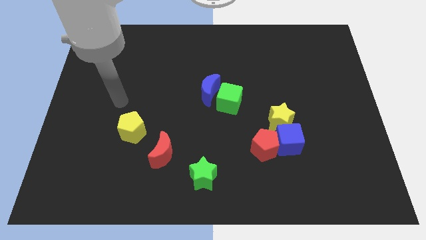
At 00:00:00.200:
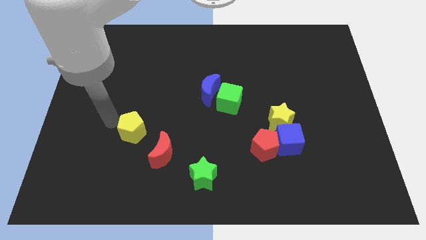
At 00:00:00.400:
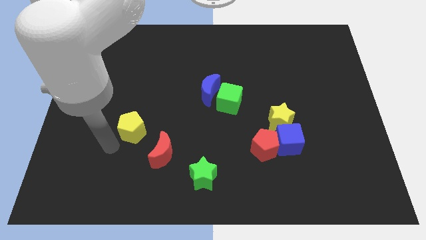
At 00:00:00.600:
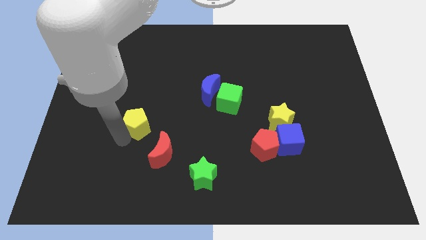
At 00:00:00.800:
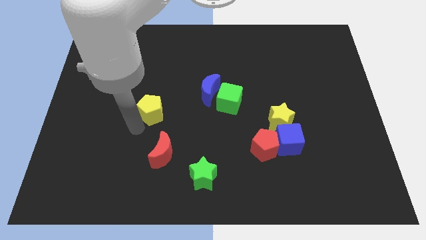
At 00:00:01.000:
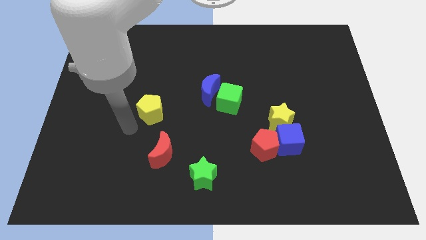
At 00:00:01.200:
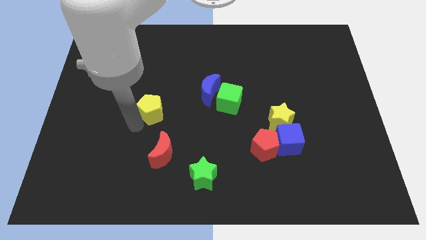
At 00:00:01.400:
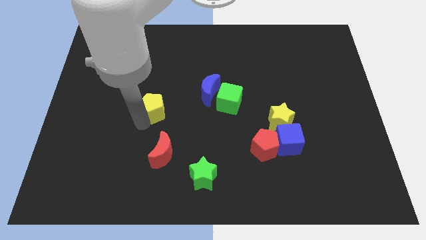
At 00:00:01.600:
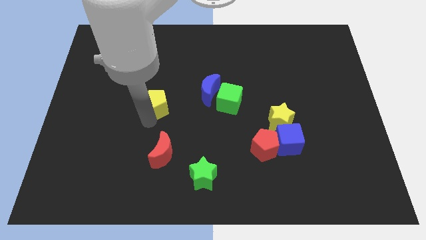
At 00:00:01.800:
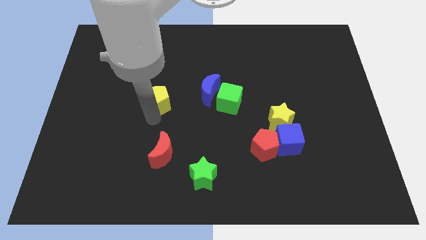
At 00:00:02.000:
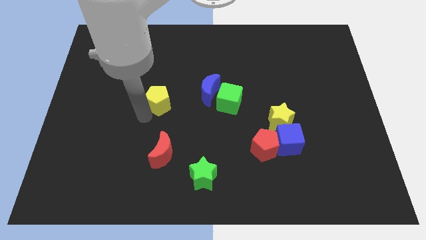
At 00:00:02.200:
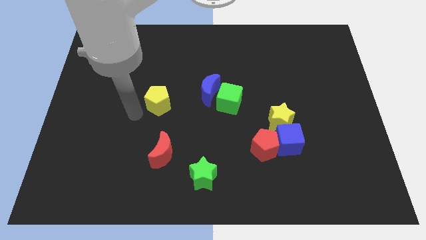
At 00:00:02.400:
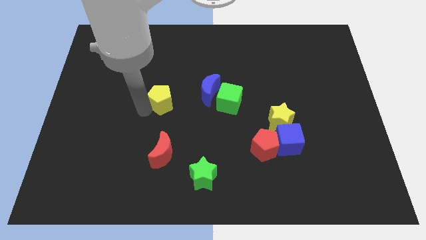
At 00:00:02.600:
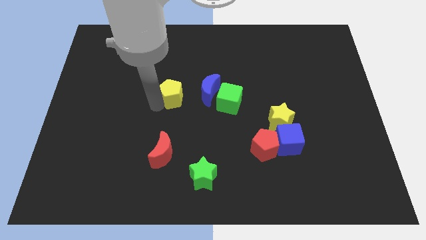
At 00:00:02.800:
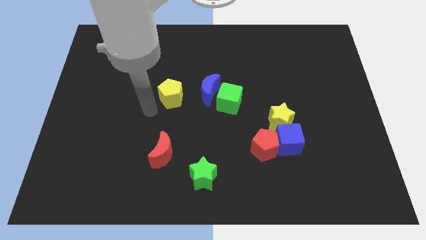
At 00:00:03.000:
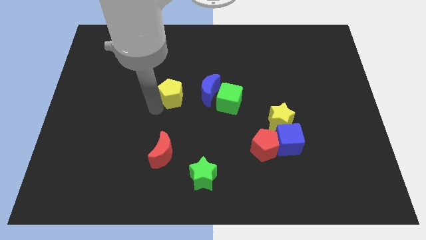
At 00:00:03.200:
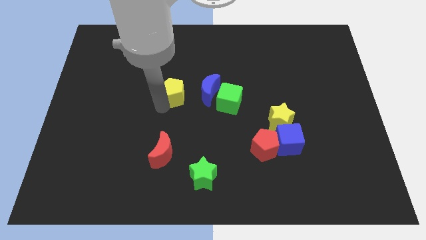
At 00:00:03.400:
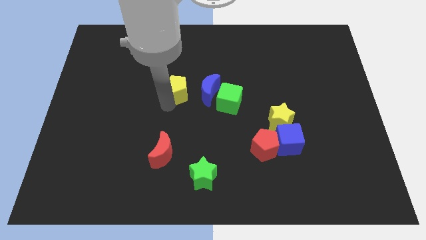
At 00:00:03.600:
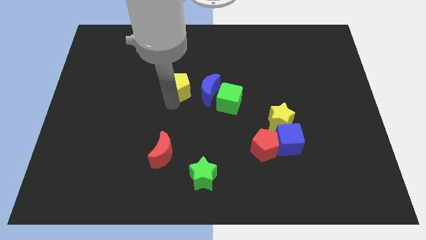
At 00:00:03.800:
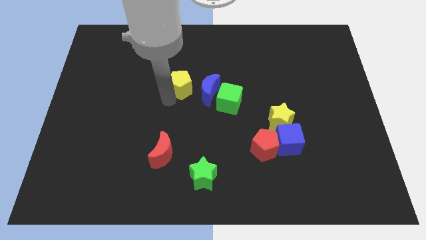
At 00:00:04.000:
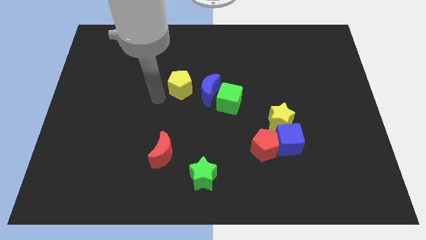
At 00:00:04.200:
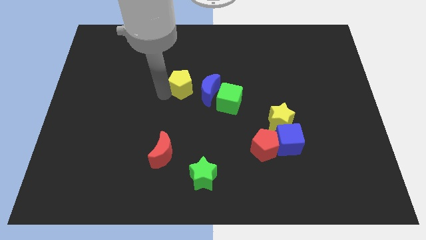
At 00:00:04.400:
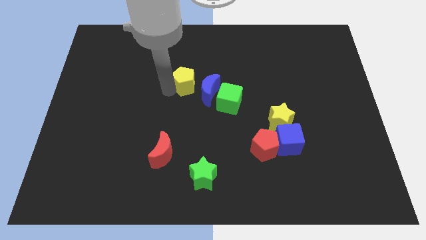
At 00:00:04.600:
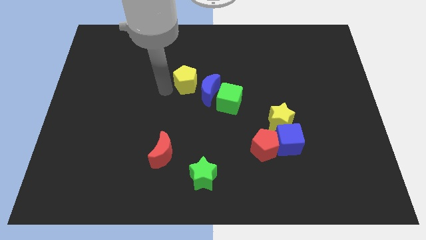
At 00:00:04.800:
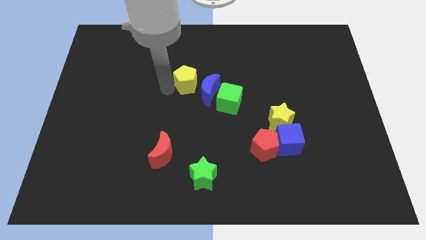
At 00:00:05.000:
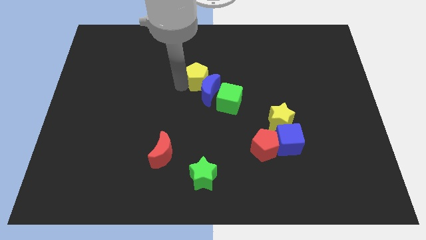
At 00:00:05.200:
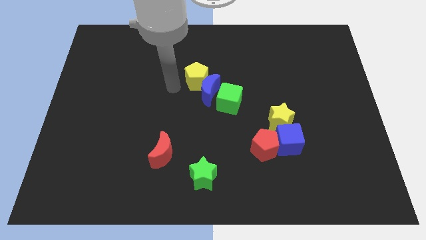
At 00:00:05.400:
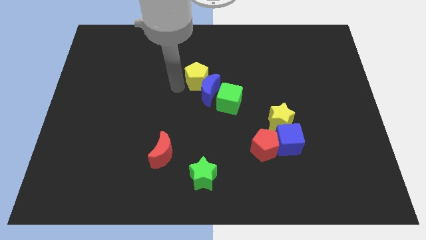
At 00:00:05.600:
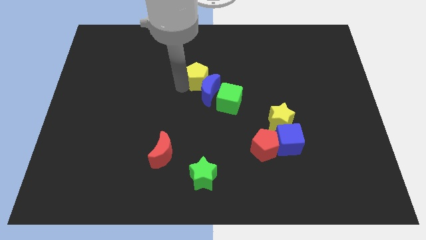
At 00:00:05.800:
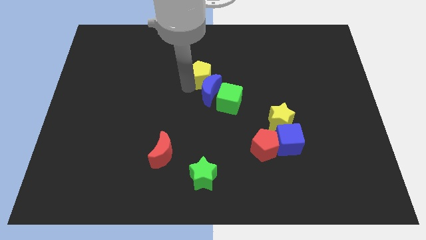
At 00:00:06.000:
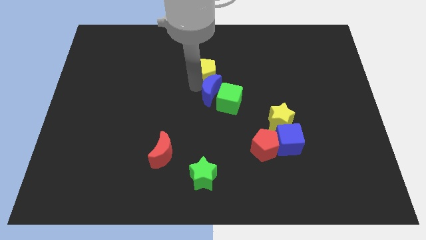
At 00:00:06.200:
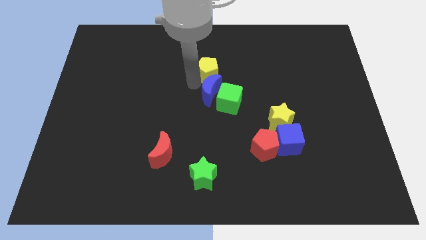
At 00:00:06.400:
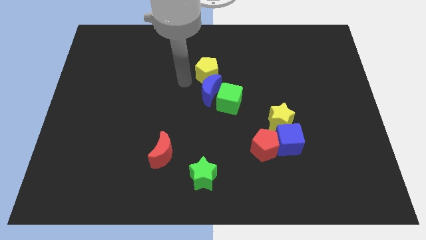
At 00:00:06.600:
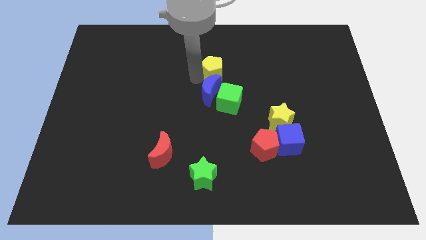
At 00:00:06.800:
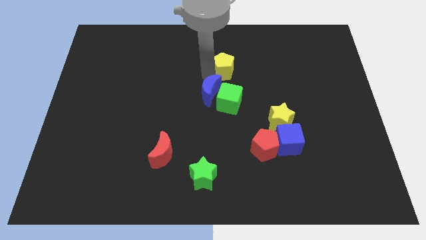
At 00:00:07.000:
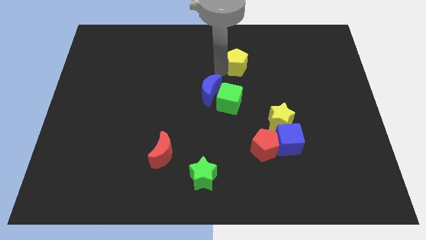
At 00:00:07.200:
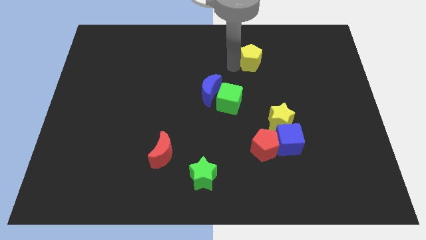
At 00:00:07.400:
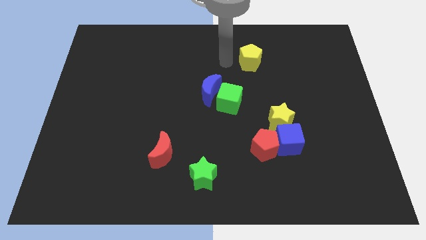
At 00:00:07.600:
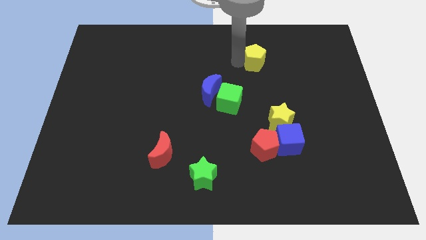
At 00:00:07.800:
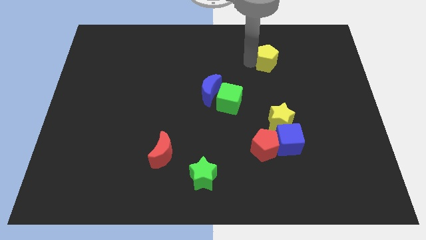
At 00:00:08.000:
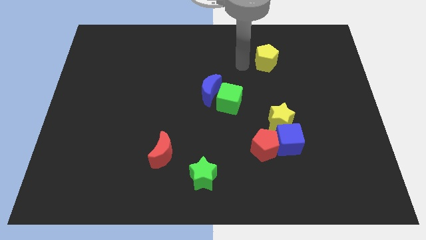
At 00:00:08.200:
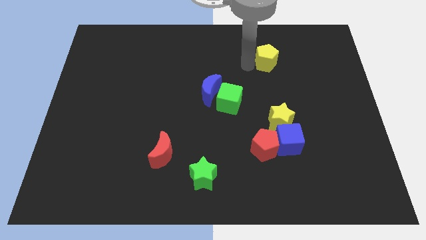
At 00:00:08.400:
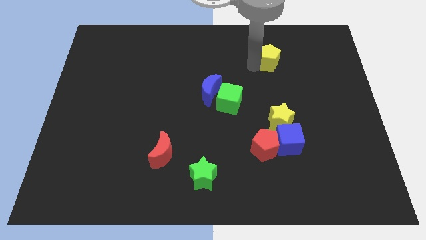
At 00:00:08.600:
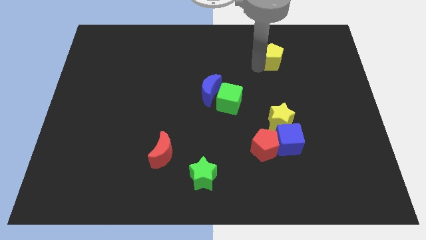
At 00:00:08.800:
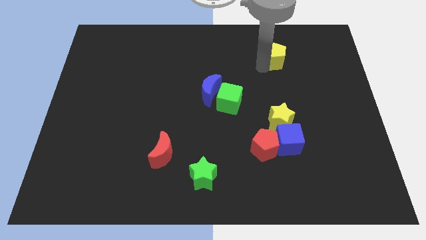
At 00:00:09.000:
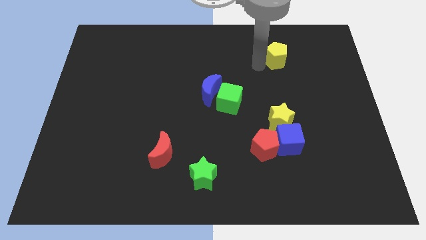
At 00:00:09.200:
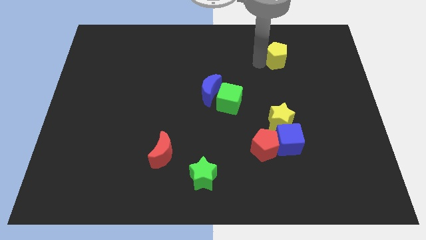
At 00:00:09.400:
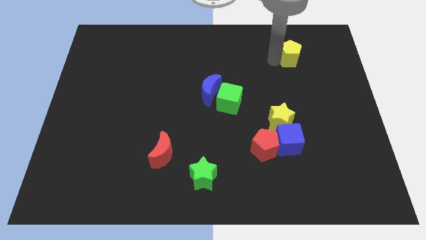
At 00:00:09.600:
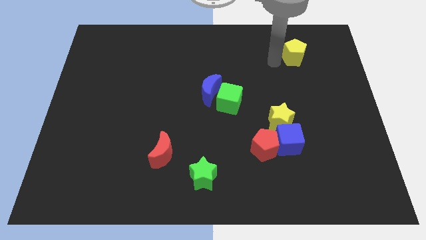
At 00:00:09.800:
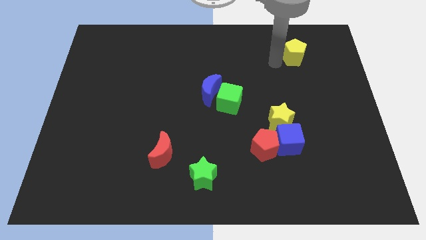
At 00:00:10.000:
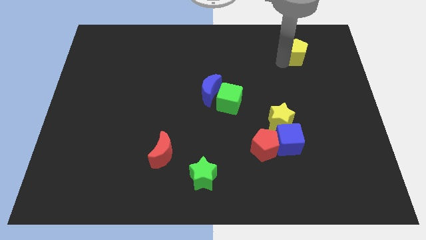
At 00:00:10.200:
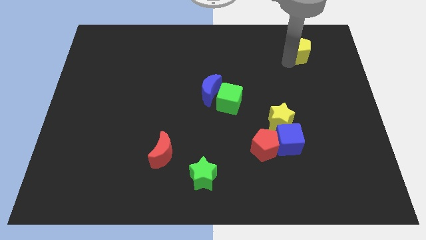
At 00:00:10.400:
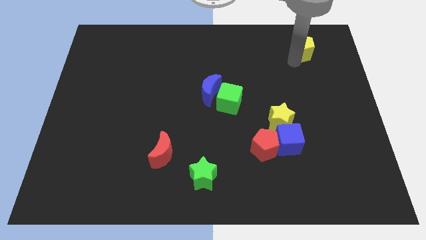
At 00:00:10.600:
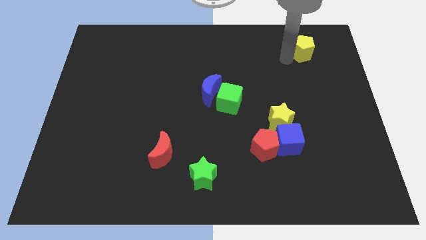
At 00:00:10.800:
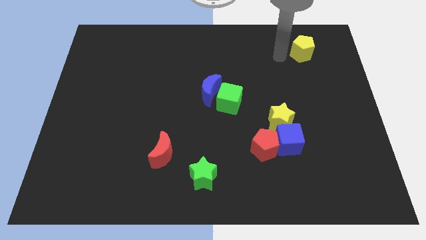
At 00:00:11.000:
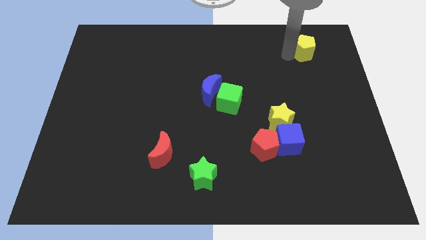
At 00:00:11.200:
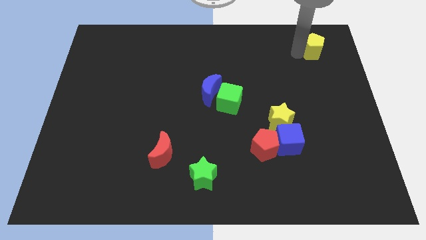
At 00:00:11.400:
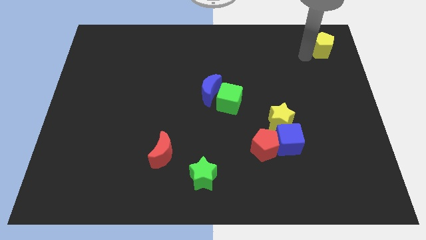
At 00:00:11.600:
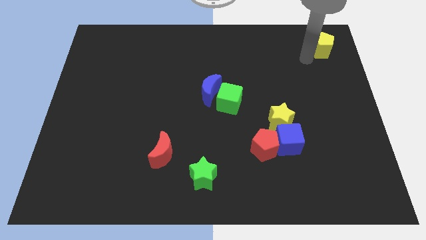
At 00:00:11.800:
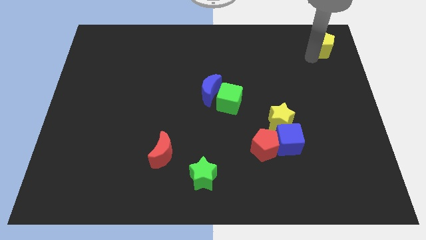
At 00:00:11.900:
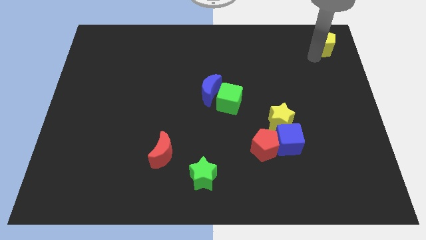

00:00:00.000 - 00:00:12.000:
move the yellow pentagon to the top right
